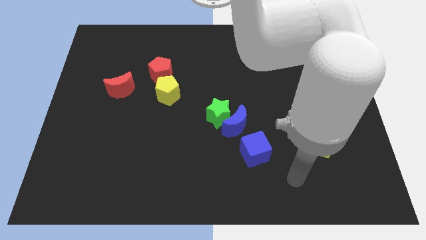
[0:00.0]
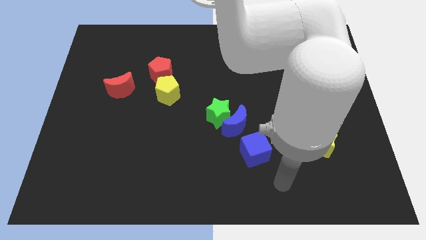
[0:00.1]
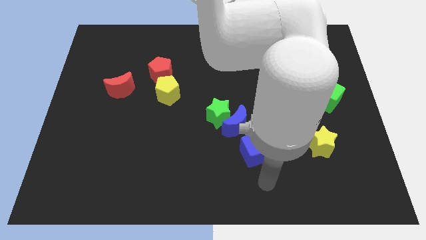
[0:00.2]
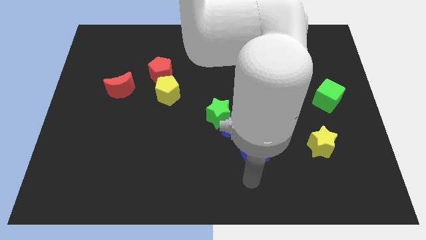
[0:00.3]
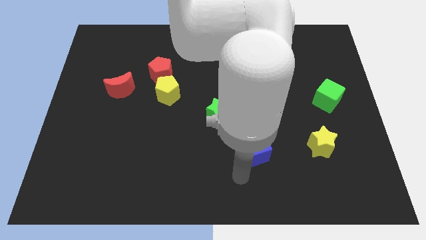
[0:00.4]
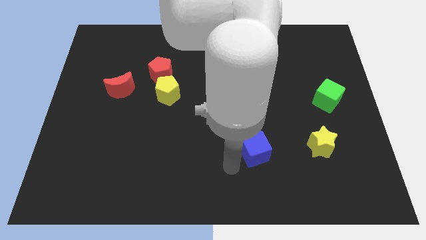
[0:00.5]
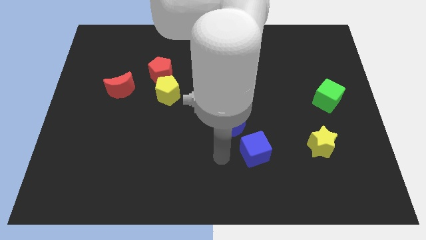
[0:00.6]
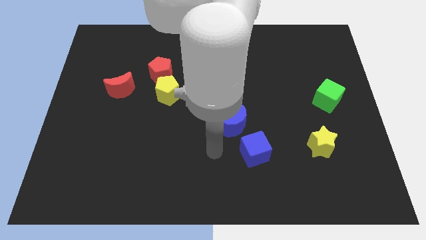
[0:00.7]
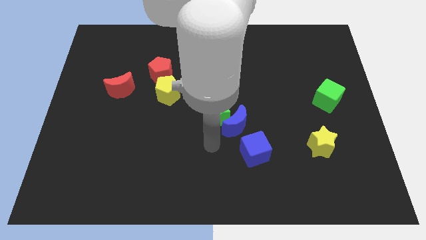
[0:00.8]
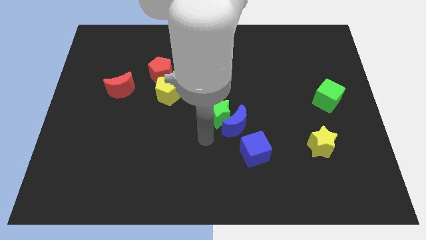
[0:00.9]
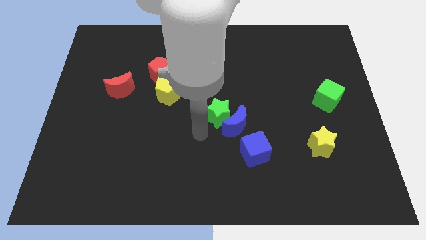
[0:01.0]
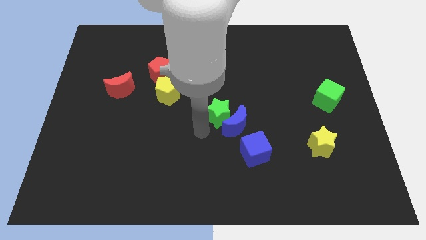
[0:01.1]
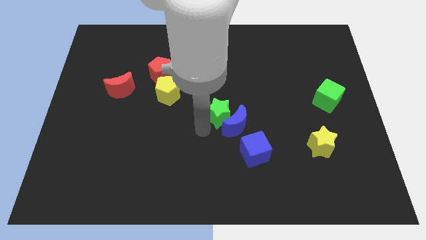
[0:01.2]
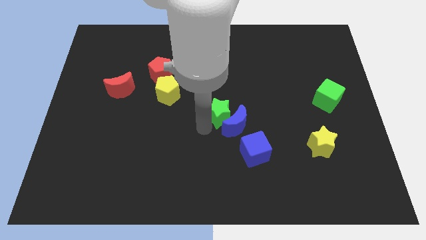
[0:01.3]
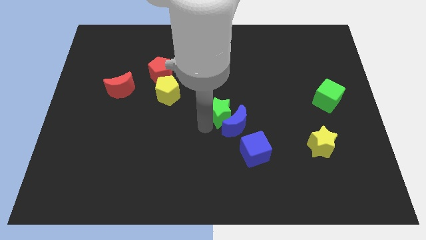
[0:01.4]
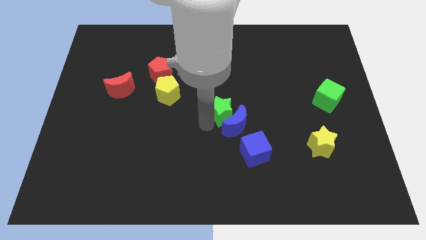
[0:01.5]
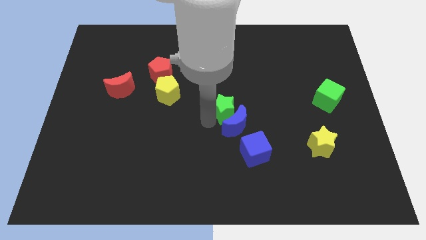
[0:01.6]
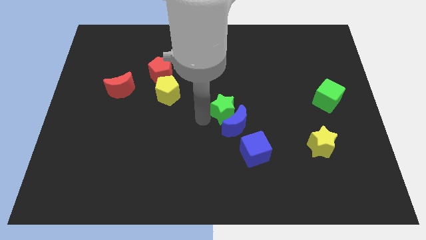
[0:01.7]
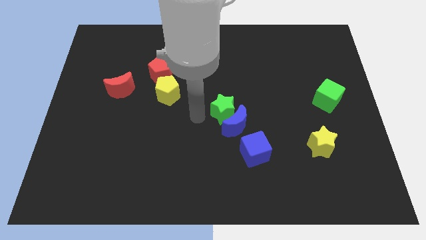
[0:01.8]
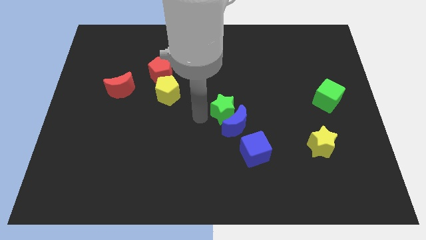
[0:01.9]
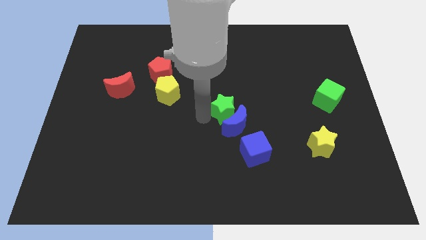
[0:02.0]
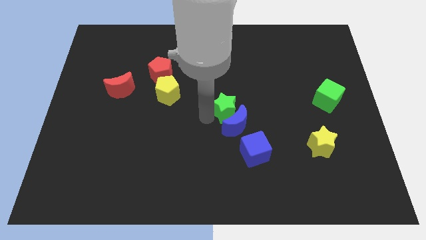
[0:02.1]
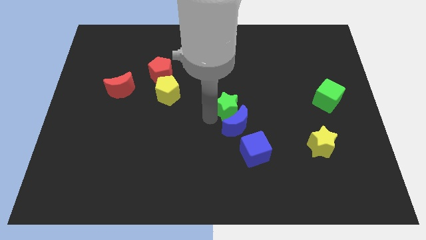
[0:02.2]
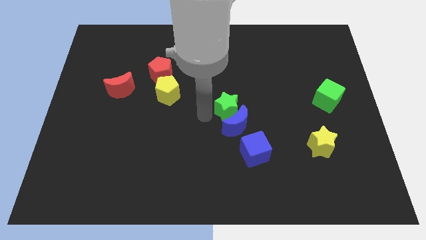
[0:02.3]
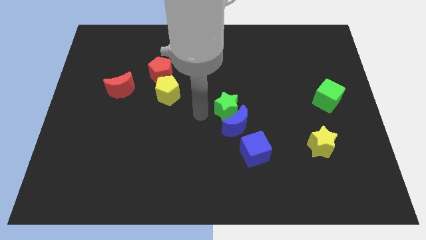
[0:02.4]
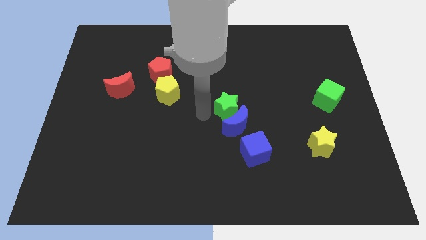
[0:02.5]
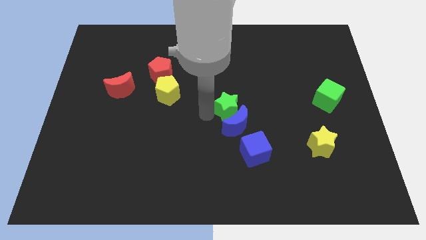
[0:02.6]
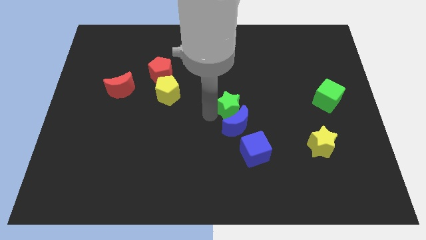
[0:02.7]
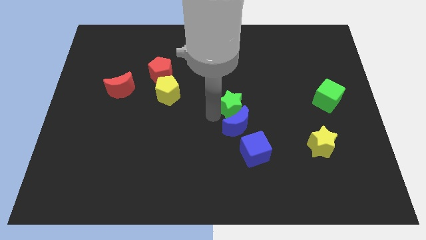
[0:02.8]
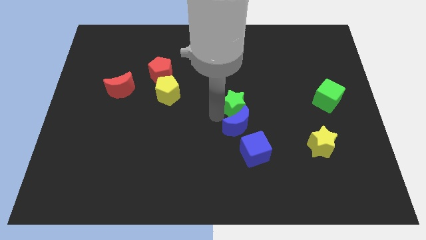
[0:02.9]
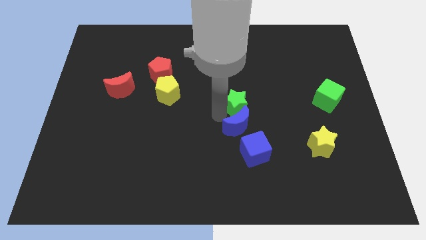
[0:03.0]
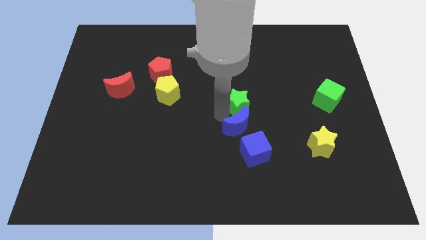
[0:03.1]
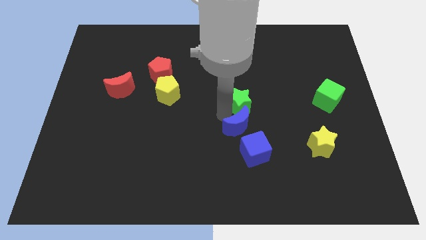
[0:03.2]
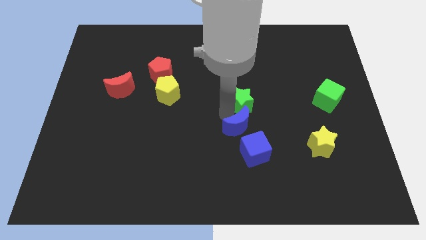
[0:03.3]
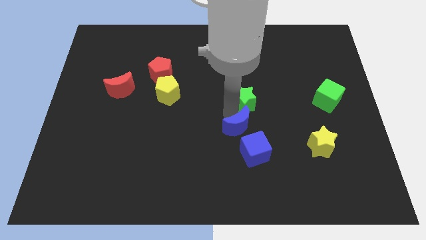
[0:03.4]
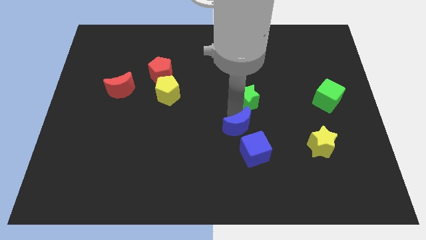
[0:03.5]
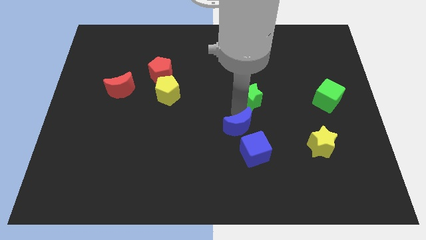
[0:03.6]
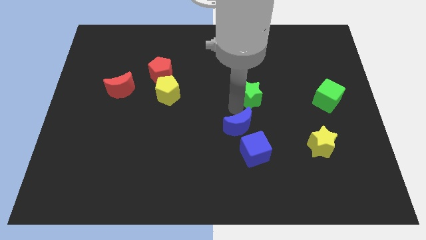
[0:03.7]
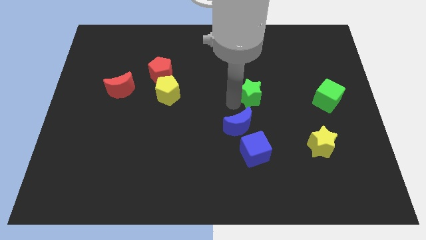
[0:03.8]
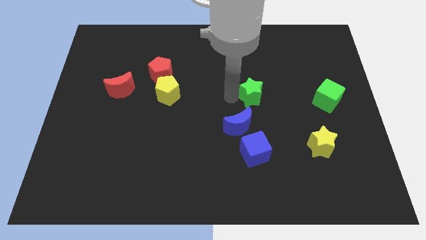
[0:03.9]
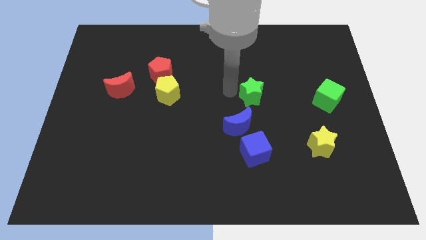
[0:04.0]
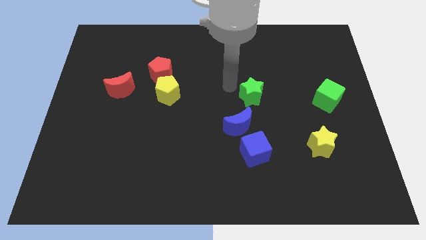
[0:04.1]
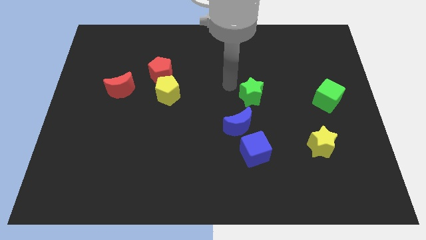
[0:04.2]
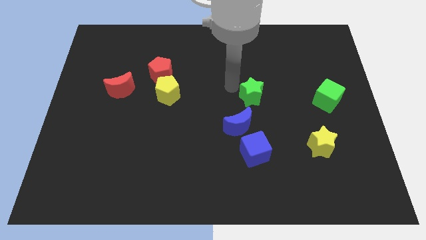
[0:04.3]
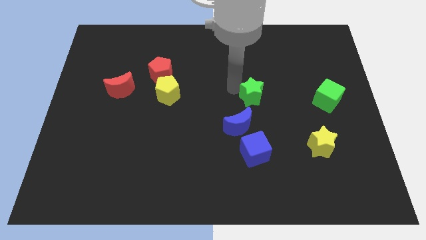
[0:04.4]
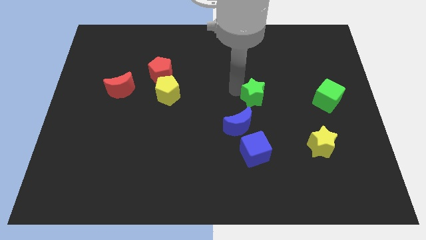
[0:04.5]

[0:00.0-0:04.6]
push the green star to the right a bit

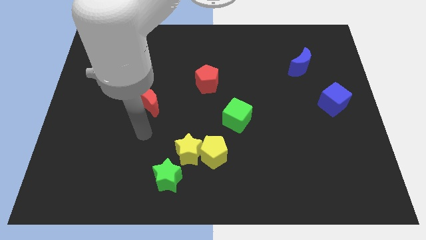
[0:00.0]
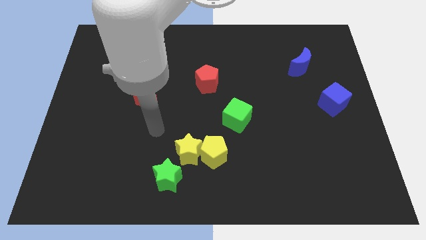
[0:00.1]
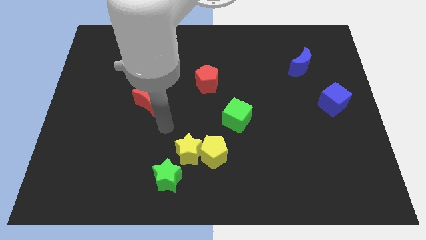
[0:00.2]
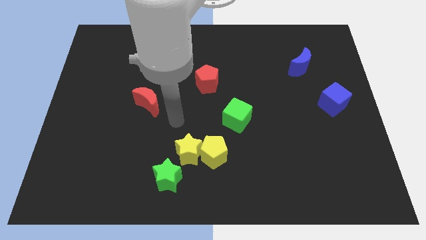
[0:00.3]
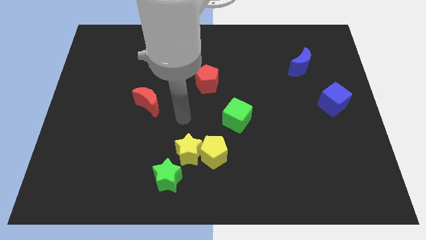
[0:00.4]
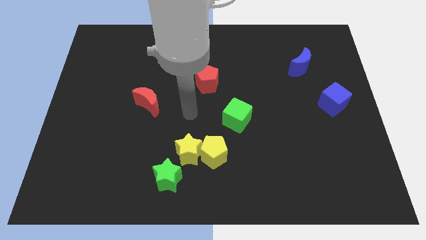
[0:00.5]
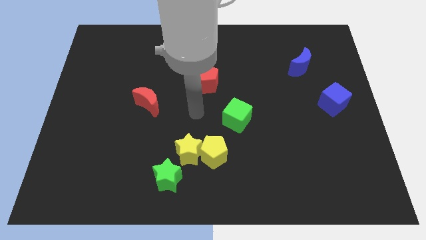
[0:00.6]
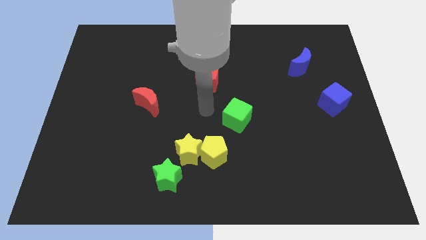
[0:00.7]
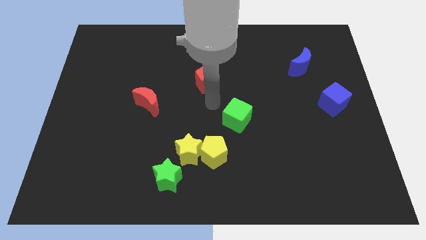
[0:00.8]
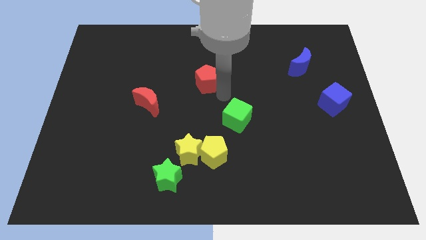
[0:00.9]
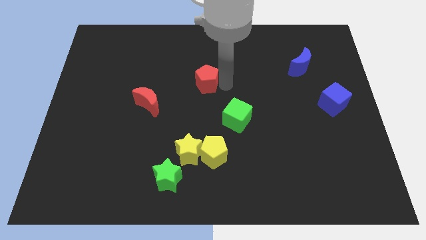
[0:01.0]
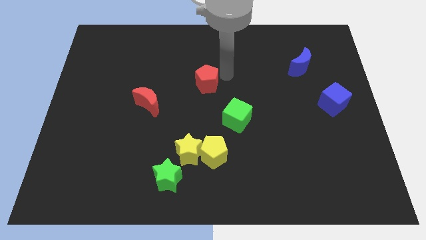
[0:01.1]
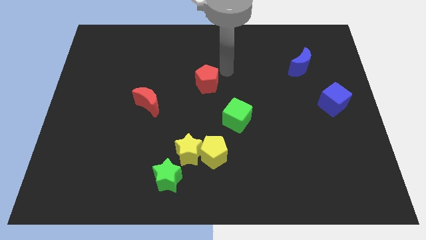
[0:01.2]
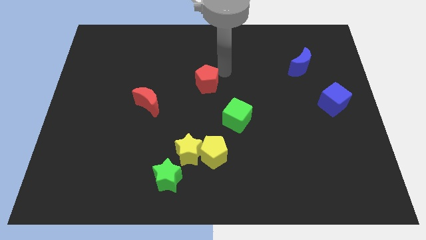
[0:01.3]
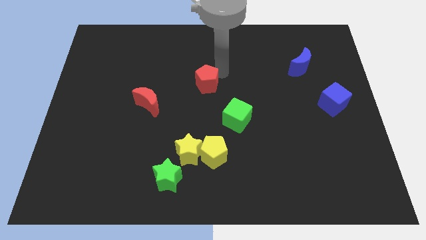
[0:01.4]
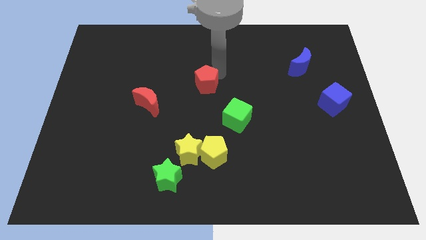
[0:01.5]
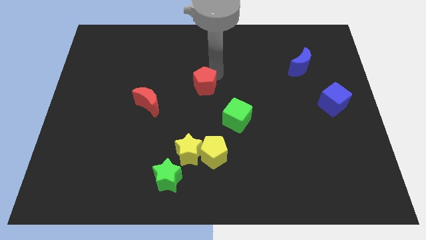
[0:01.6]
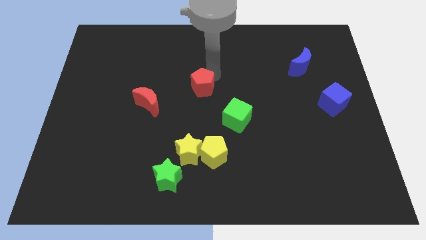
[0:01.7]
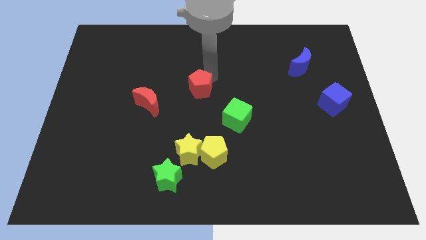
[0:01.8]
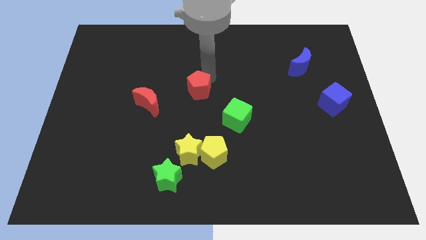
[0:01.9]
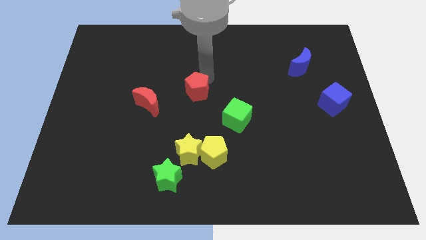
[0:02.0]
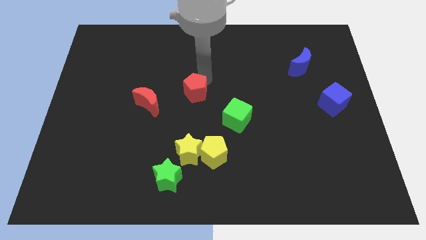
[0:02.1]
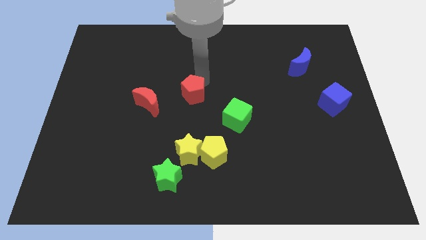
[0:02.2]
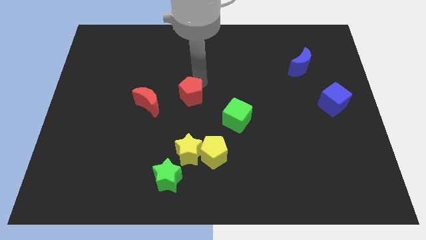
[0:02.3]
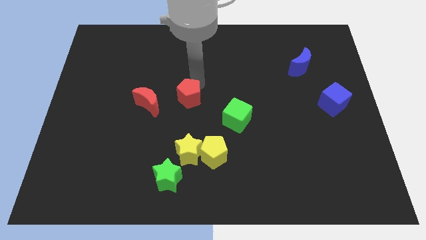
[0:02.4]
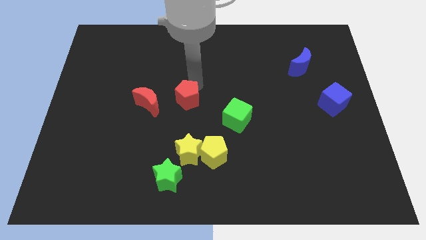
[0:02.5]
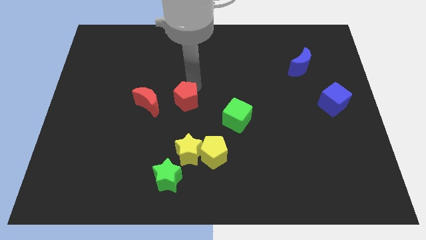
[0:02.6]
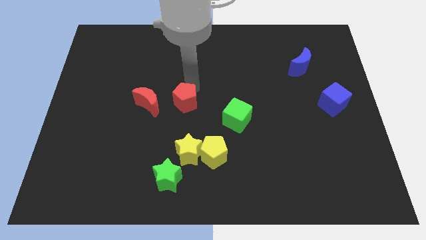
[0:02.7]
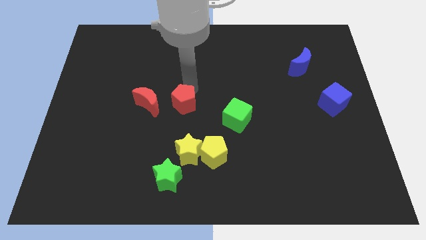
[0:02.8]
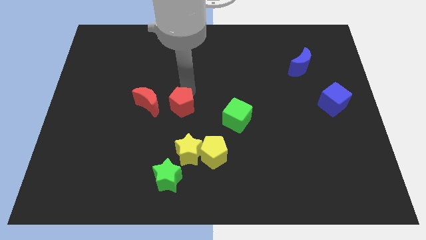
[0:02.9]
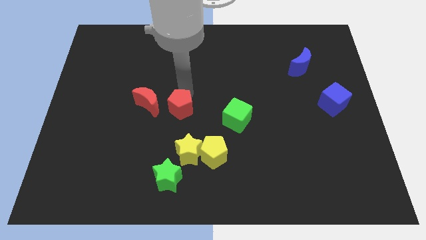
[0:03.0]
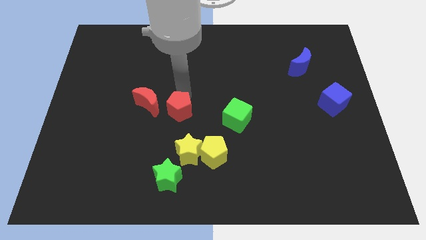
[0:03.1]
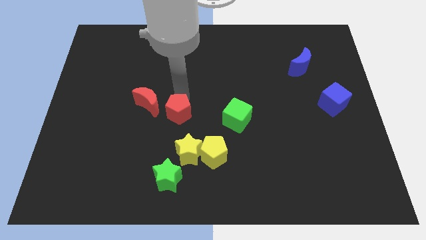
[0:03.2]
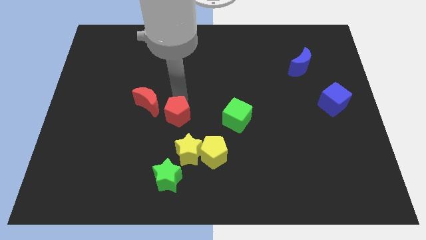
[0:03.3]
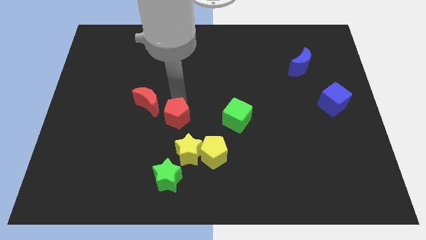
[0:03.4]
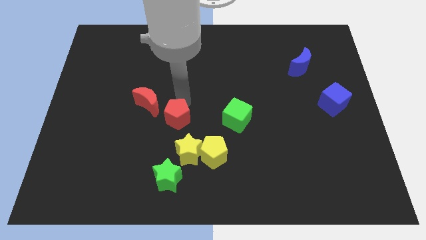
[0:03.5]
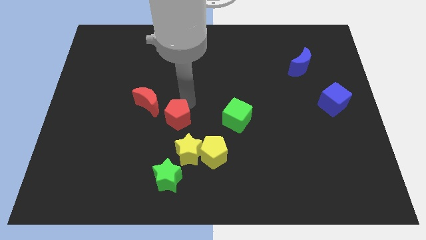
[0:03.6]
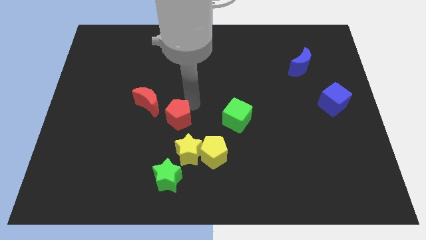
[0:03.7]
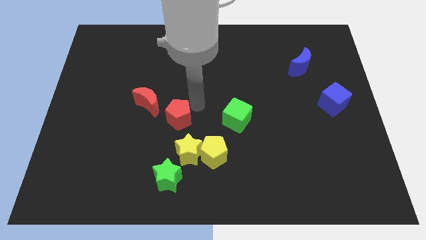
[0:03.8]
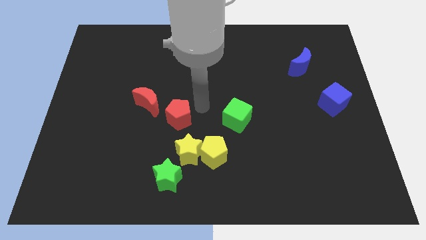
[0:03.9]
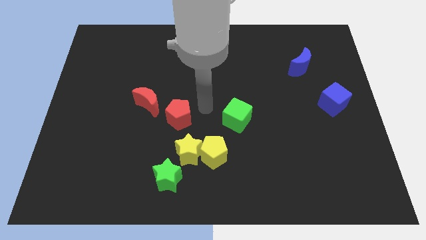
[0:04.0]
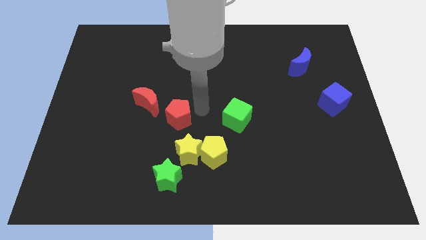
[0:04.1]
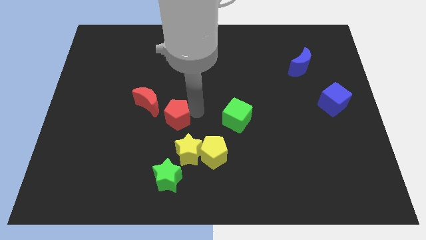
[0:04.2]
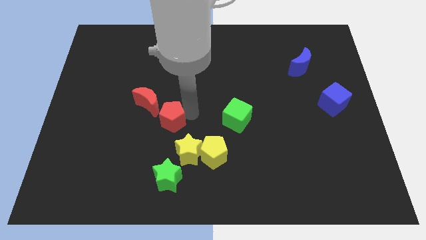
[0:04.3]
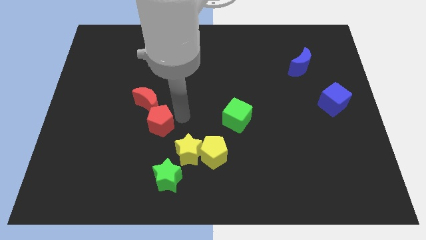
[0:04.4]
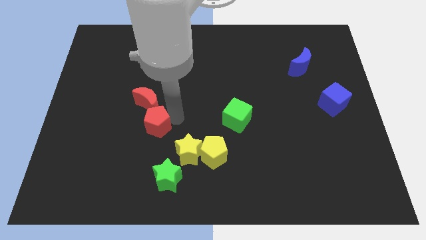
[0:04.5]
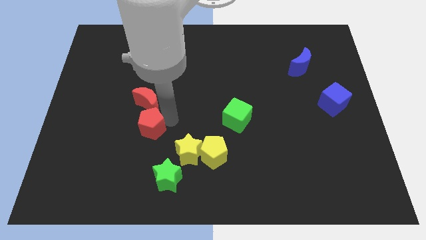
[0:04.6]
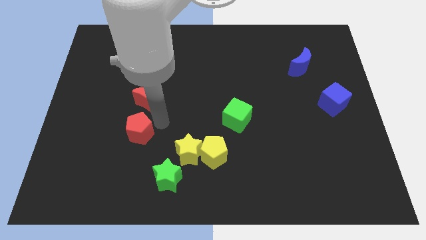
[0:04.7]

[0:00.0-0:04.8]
move the red pentagon down and to the left diagonally
